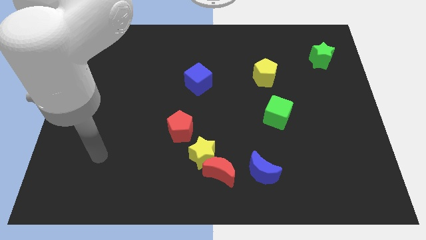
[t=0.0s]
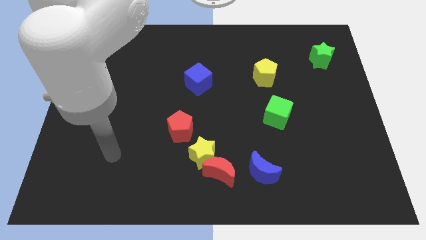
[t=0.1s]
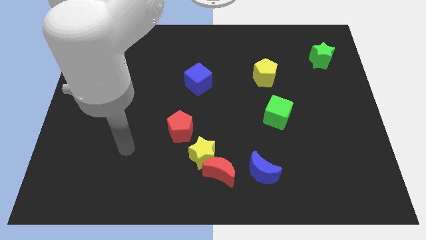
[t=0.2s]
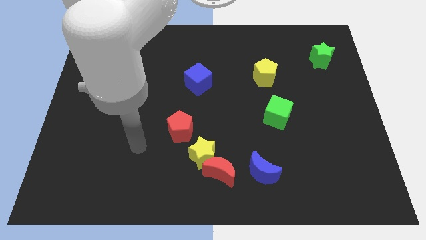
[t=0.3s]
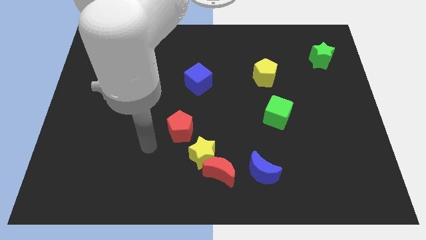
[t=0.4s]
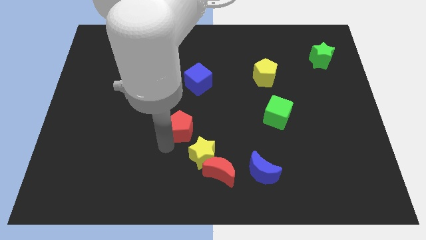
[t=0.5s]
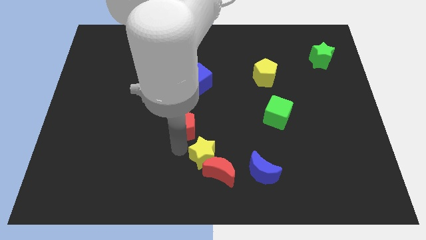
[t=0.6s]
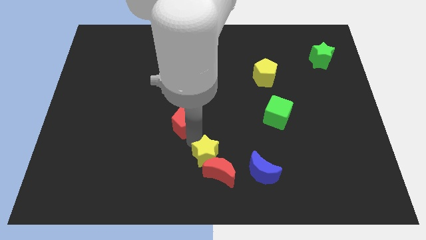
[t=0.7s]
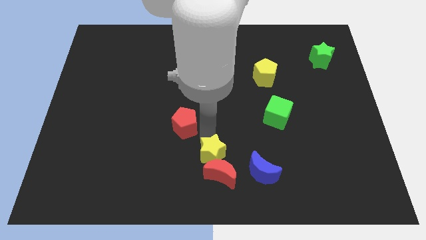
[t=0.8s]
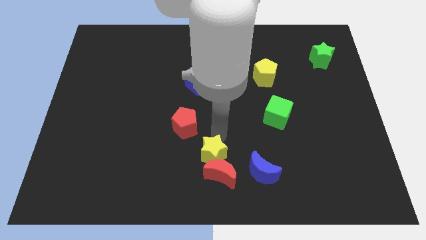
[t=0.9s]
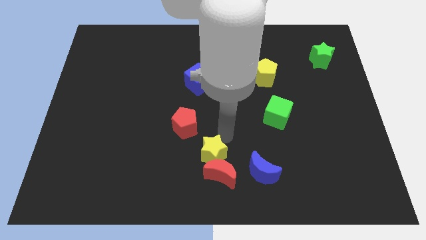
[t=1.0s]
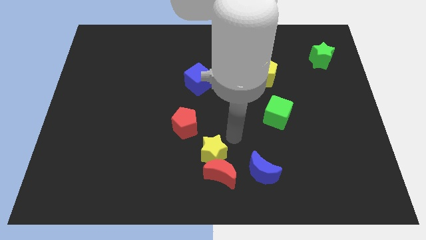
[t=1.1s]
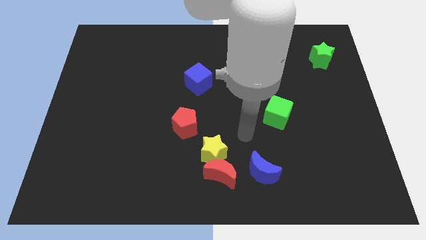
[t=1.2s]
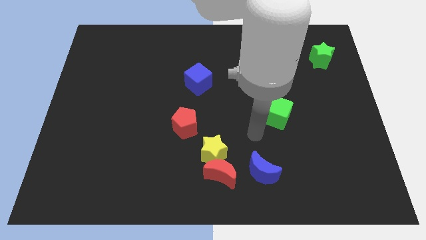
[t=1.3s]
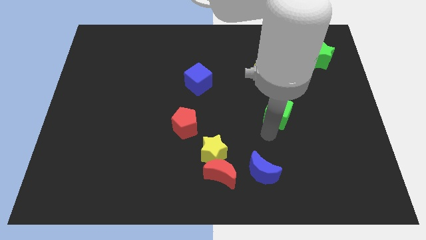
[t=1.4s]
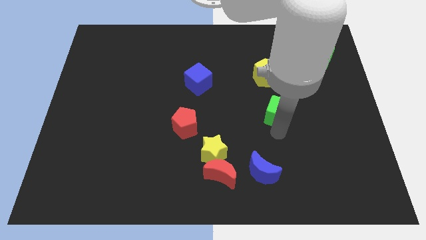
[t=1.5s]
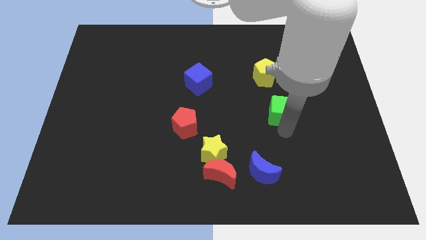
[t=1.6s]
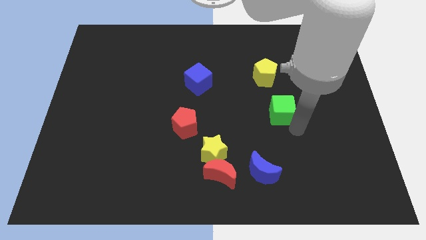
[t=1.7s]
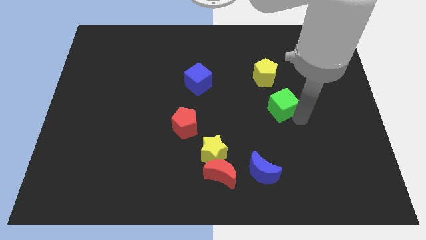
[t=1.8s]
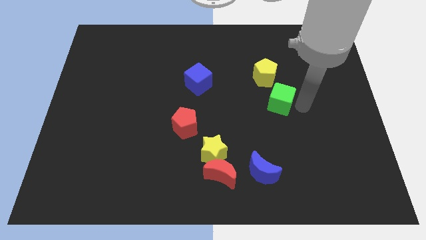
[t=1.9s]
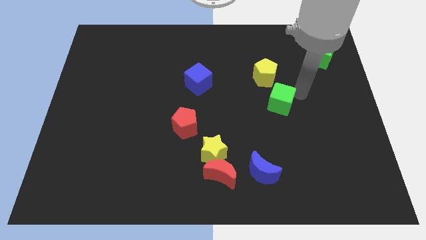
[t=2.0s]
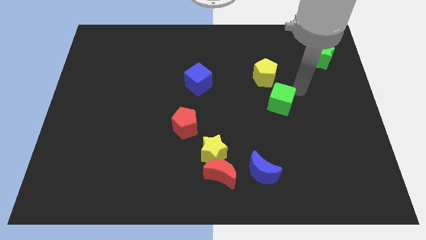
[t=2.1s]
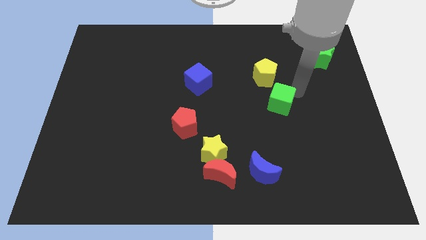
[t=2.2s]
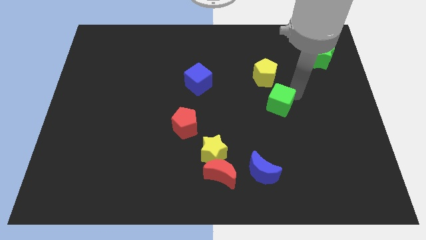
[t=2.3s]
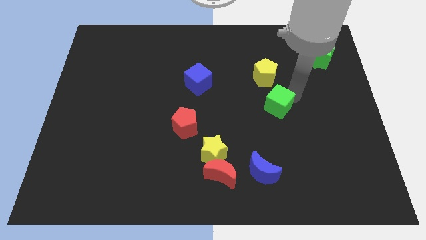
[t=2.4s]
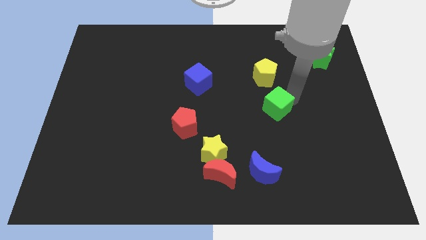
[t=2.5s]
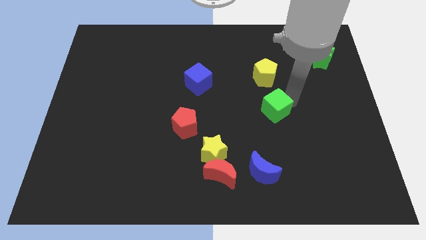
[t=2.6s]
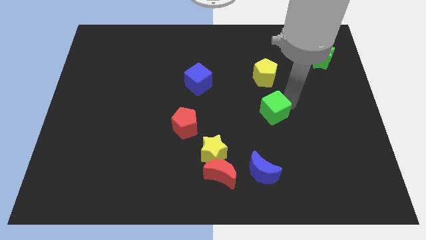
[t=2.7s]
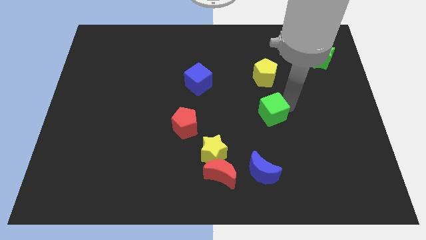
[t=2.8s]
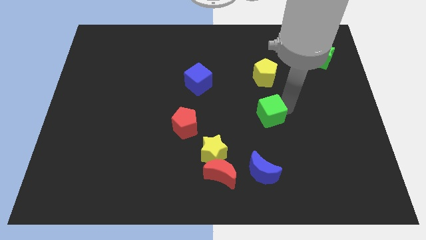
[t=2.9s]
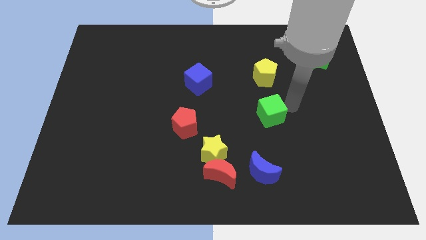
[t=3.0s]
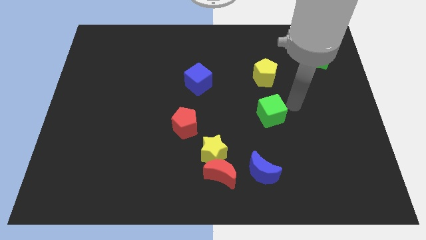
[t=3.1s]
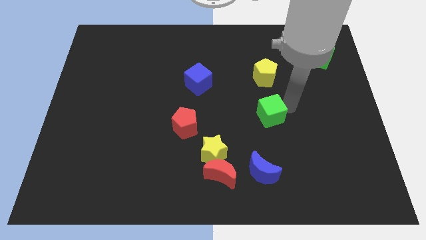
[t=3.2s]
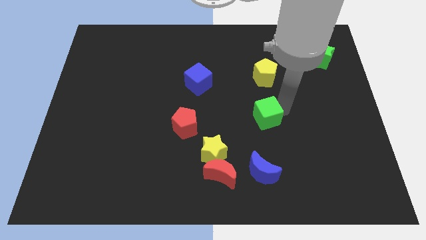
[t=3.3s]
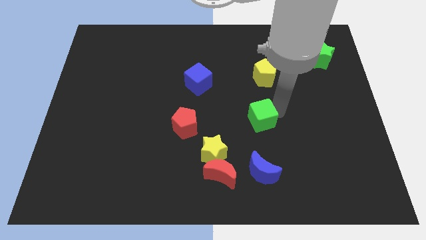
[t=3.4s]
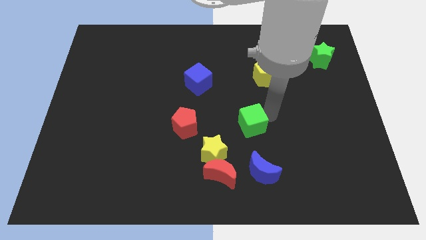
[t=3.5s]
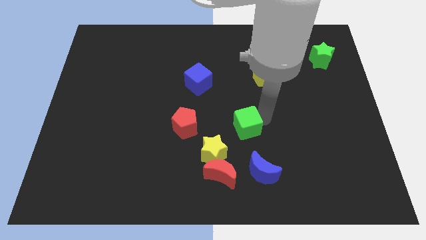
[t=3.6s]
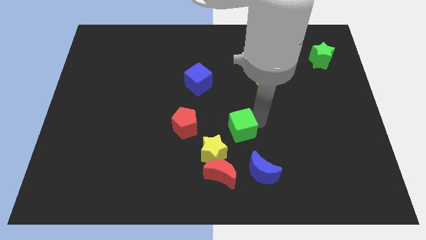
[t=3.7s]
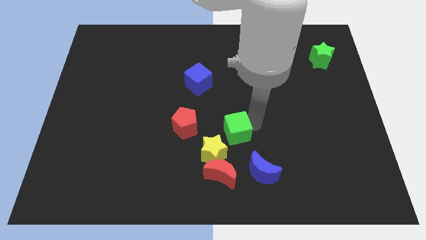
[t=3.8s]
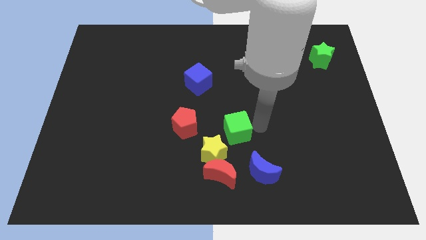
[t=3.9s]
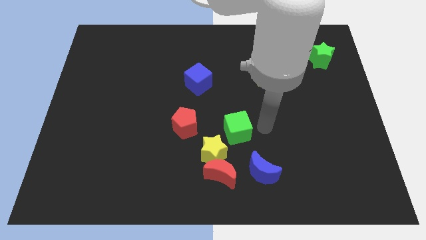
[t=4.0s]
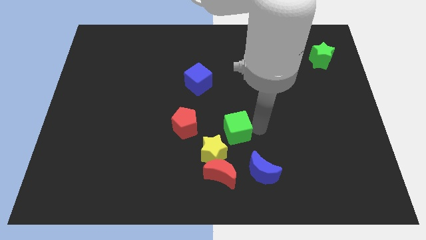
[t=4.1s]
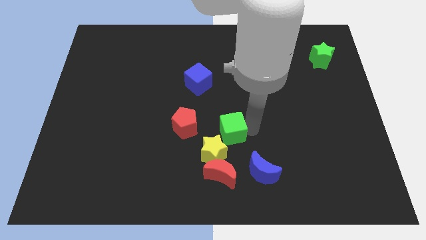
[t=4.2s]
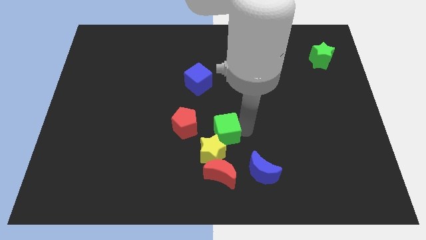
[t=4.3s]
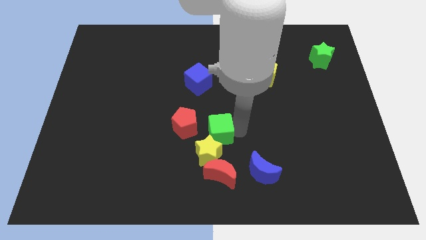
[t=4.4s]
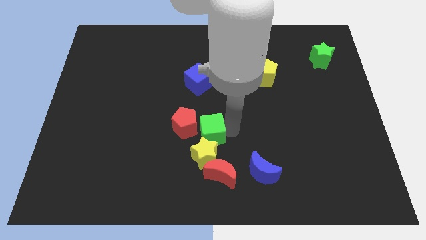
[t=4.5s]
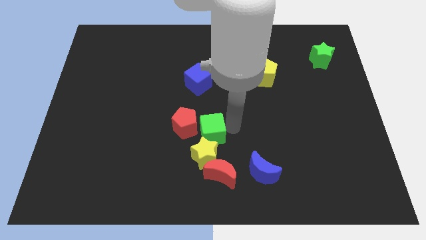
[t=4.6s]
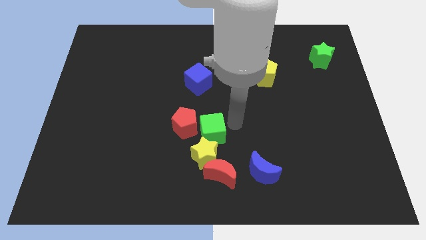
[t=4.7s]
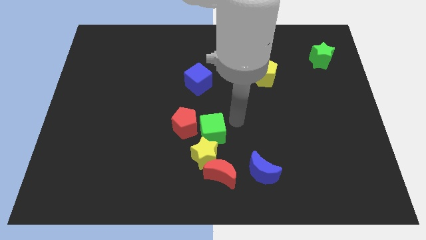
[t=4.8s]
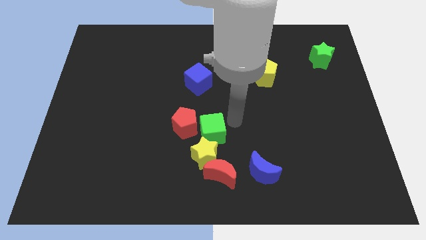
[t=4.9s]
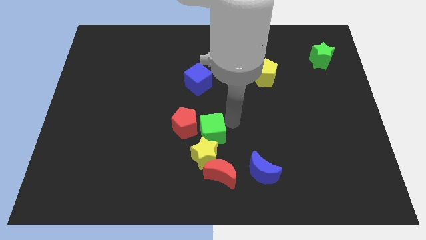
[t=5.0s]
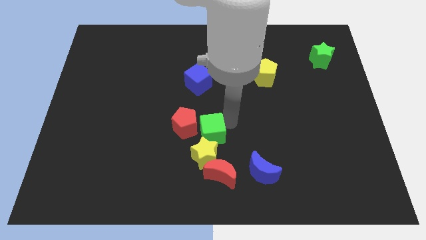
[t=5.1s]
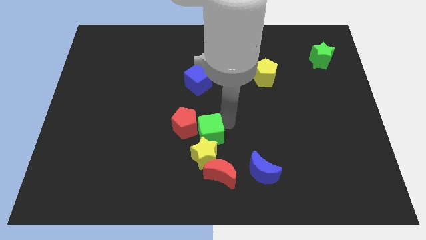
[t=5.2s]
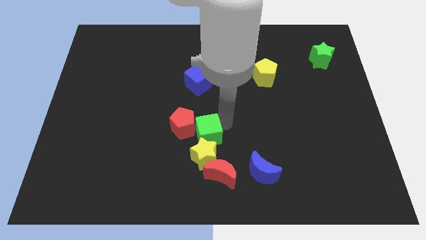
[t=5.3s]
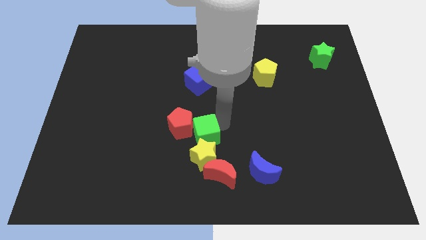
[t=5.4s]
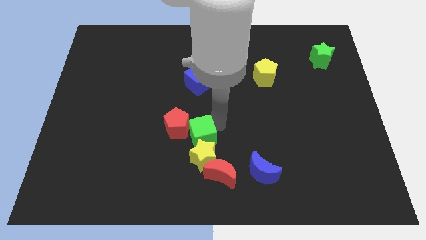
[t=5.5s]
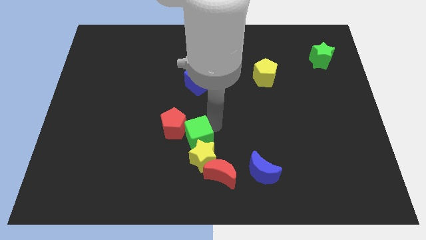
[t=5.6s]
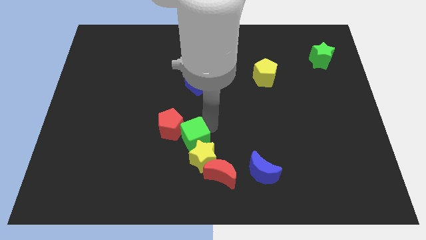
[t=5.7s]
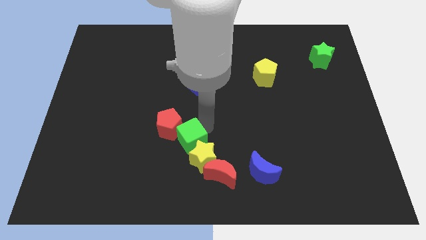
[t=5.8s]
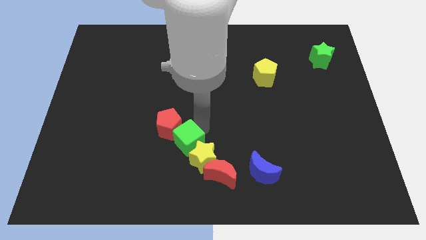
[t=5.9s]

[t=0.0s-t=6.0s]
slide the green cube to the bottom side of the red pentagon

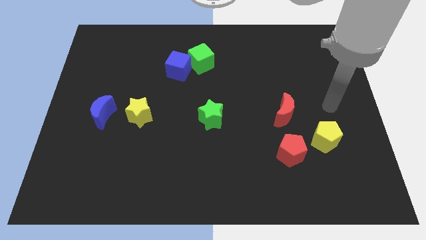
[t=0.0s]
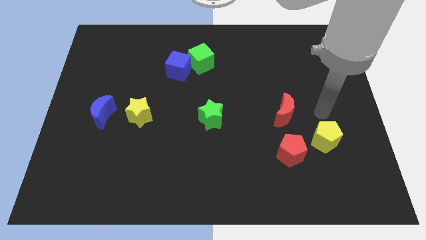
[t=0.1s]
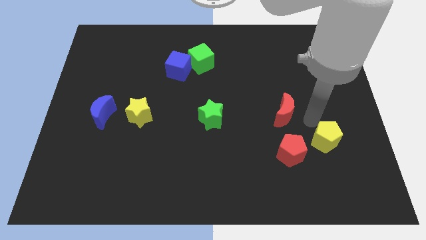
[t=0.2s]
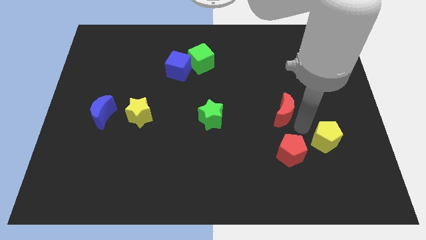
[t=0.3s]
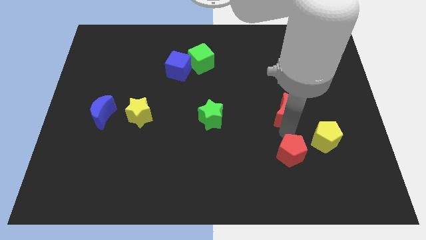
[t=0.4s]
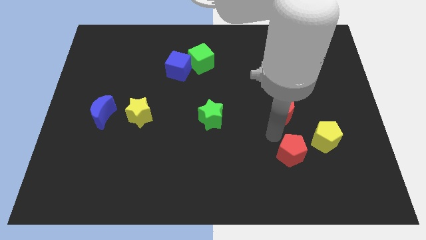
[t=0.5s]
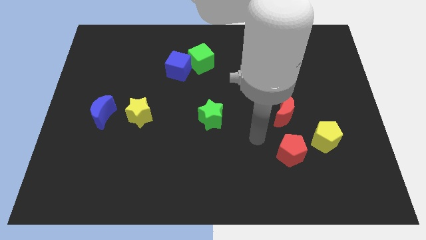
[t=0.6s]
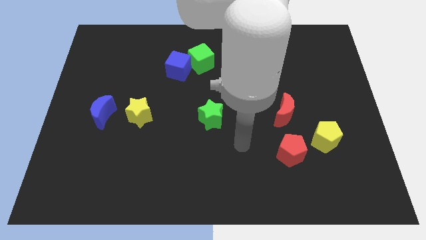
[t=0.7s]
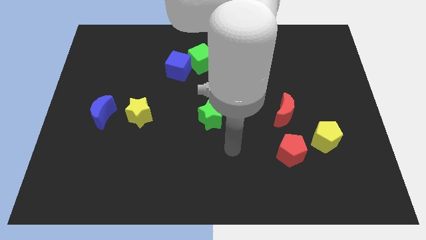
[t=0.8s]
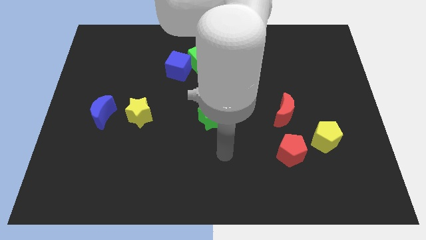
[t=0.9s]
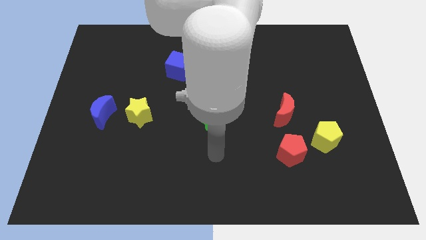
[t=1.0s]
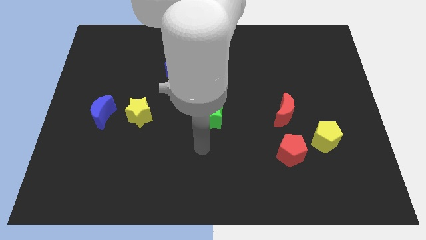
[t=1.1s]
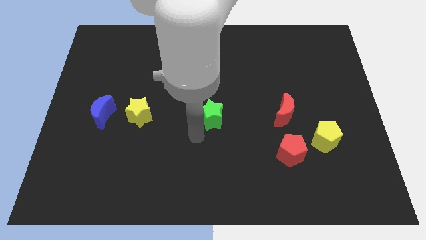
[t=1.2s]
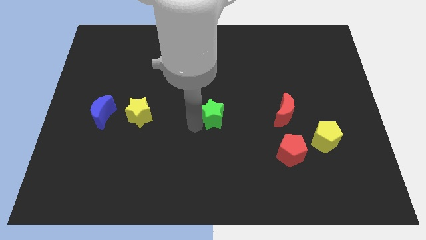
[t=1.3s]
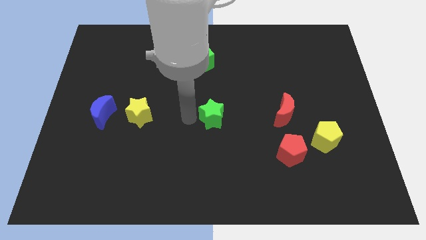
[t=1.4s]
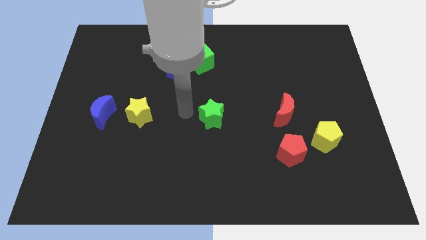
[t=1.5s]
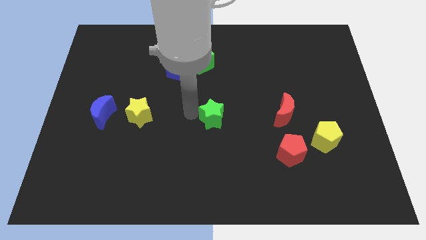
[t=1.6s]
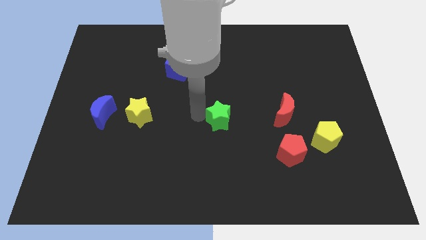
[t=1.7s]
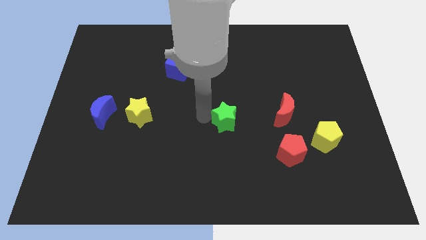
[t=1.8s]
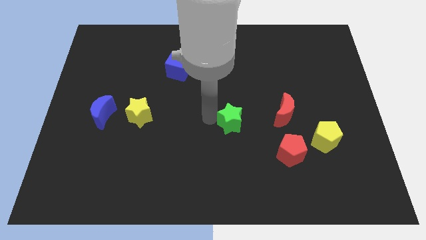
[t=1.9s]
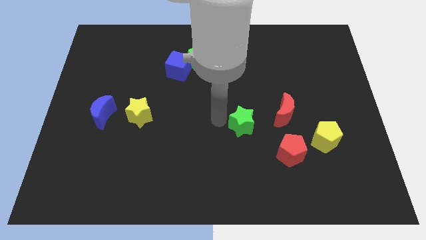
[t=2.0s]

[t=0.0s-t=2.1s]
slide the green star to the top left side of the red pentagon
